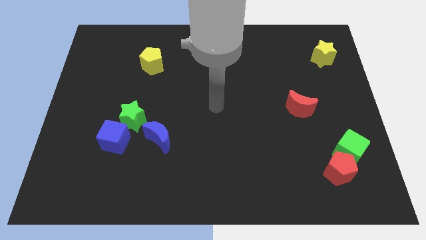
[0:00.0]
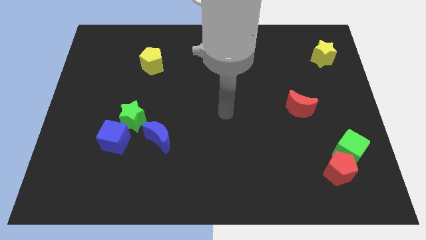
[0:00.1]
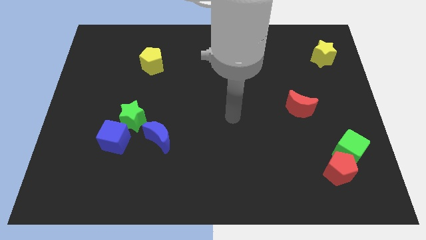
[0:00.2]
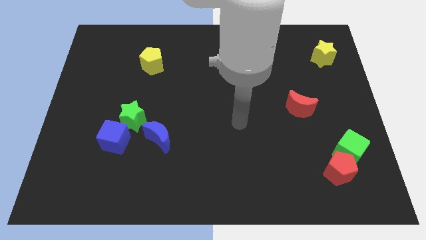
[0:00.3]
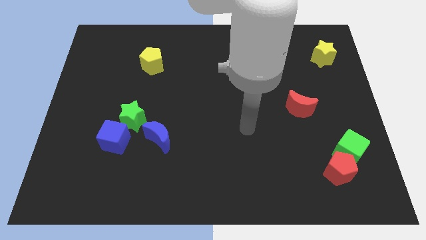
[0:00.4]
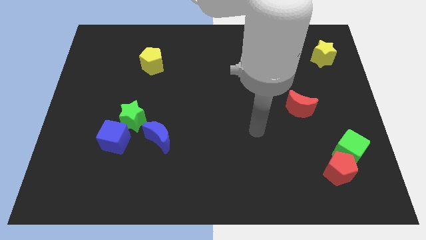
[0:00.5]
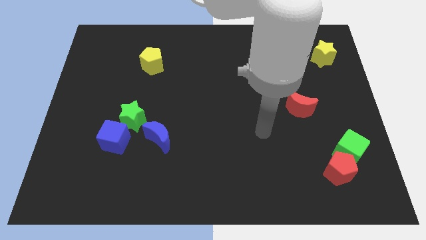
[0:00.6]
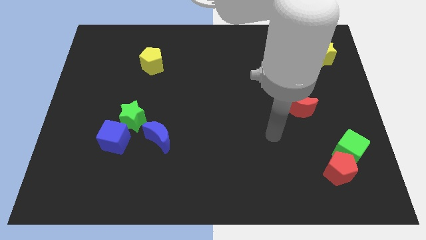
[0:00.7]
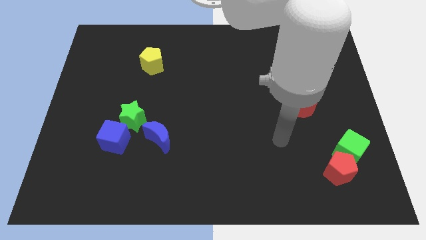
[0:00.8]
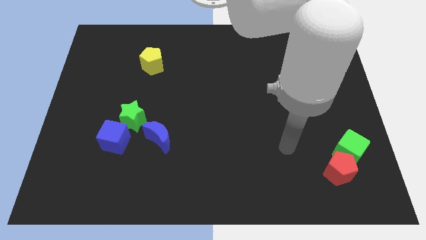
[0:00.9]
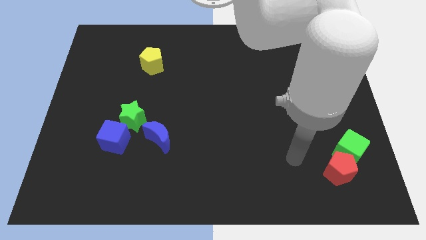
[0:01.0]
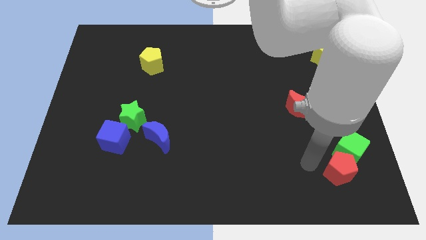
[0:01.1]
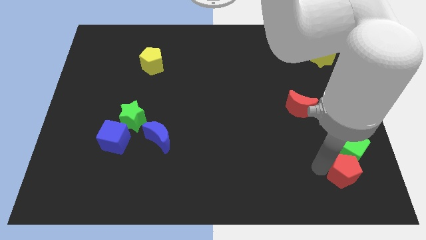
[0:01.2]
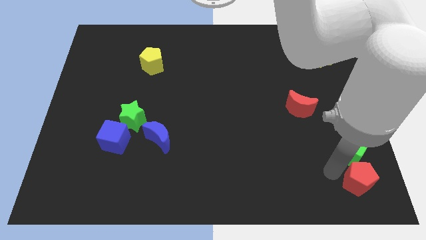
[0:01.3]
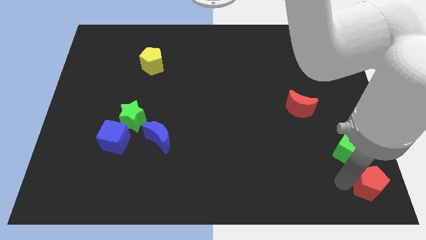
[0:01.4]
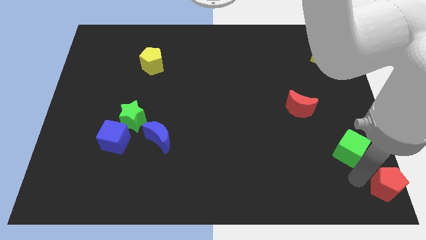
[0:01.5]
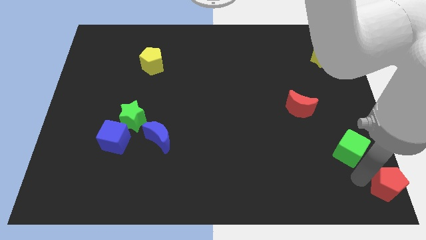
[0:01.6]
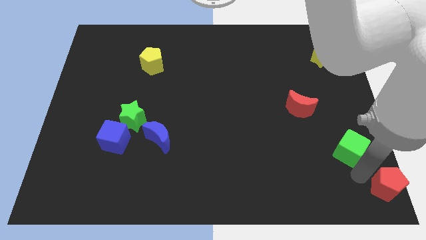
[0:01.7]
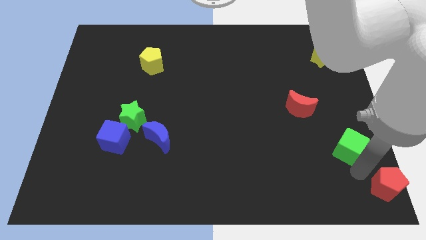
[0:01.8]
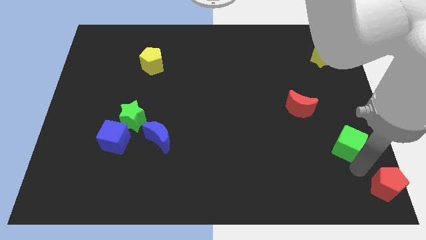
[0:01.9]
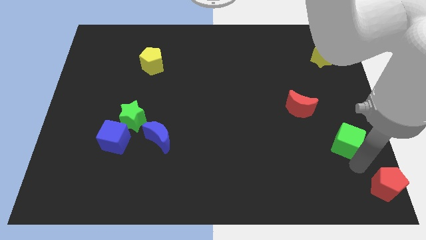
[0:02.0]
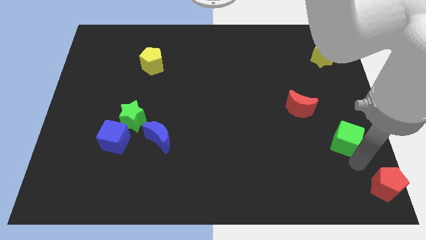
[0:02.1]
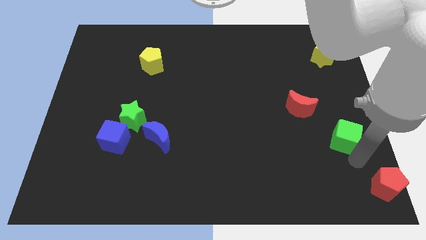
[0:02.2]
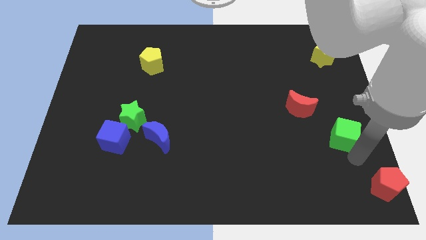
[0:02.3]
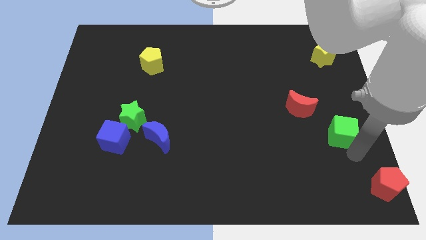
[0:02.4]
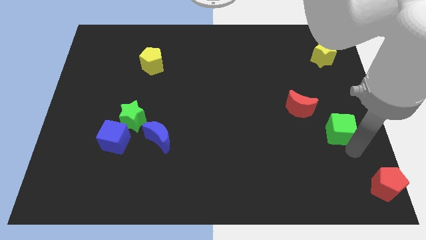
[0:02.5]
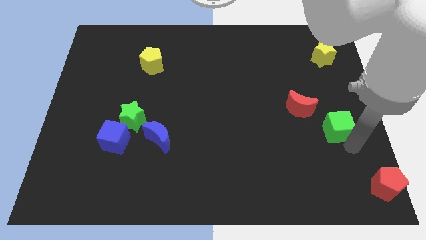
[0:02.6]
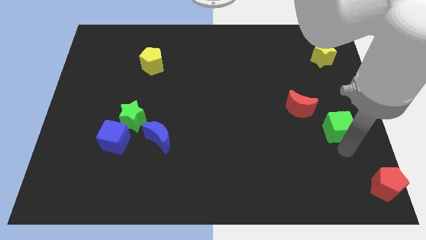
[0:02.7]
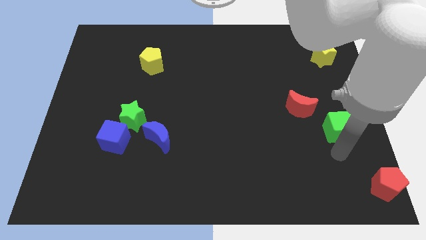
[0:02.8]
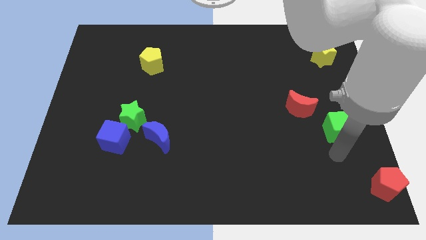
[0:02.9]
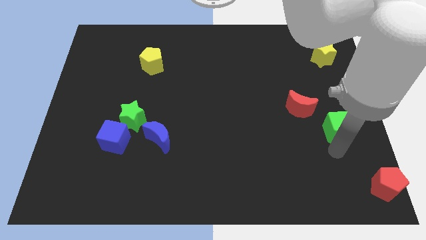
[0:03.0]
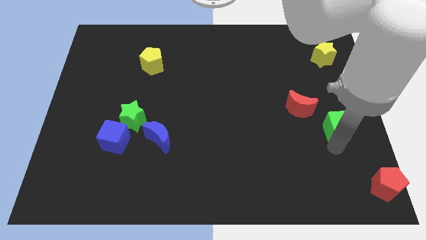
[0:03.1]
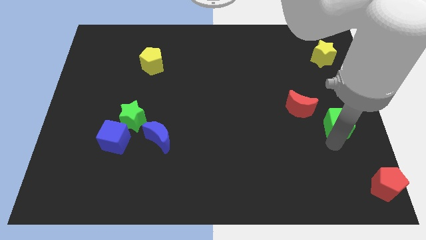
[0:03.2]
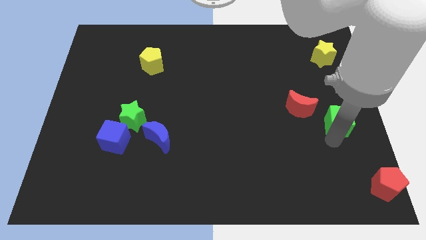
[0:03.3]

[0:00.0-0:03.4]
move the green cube upwards a little bit

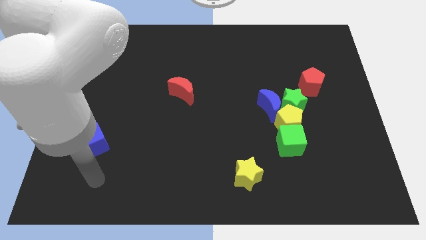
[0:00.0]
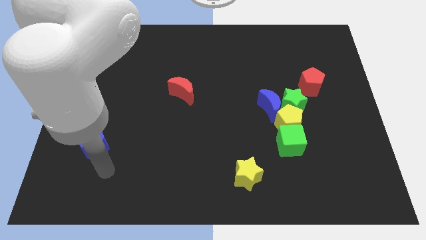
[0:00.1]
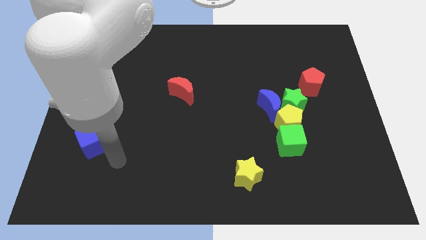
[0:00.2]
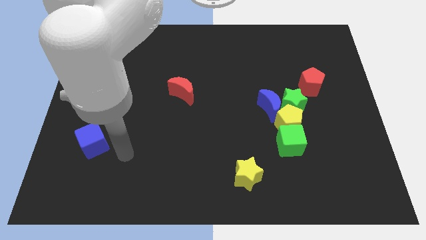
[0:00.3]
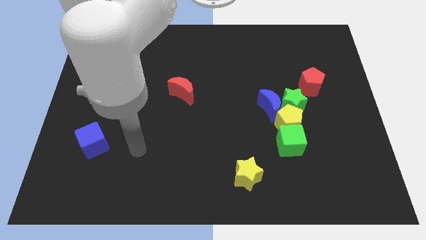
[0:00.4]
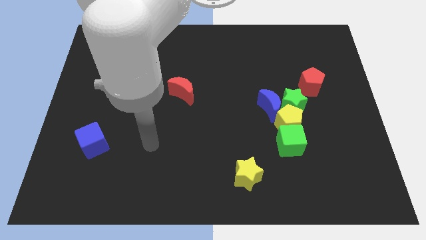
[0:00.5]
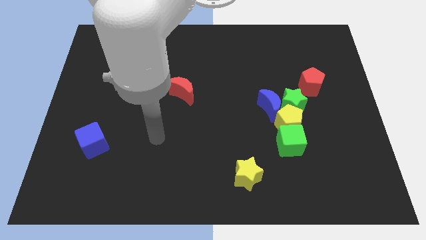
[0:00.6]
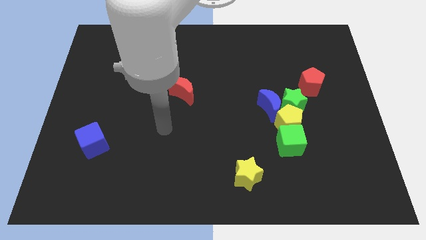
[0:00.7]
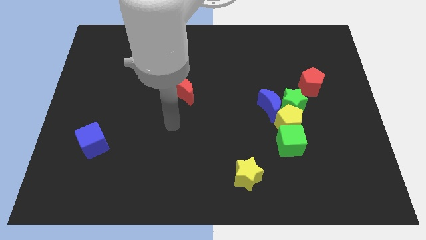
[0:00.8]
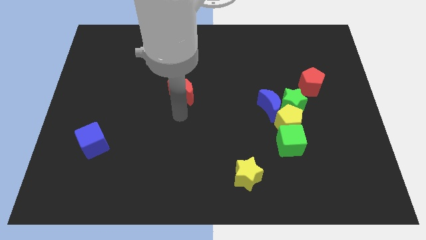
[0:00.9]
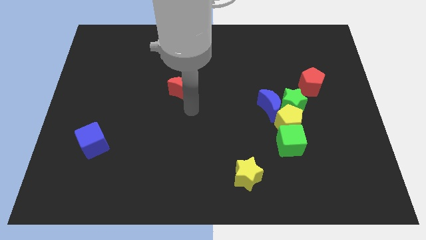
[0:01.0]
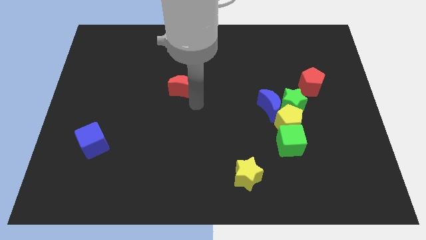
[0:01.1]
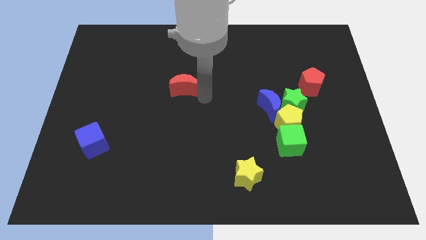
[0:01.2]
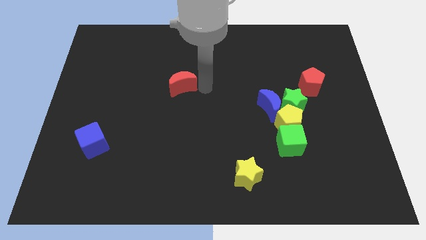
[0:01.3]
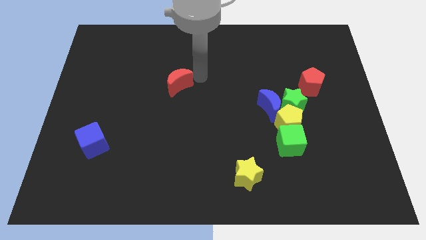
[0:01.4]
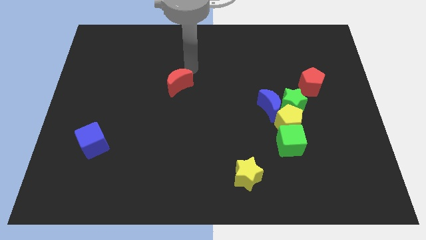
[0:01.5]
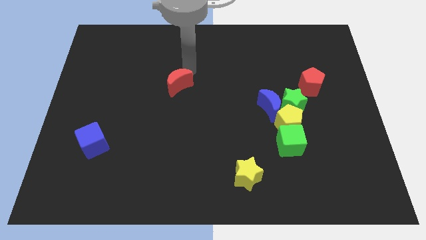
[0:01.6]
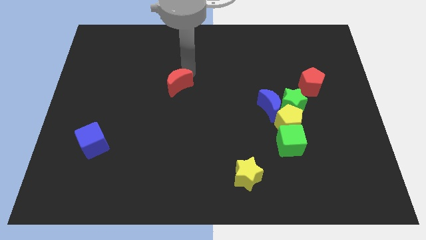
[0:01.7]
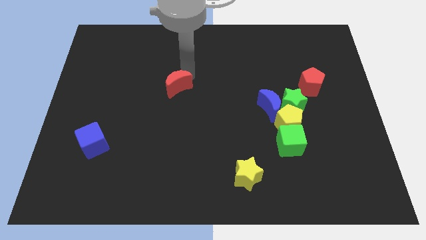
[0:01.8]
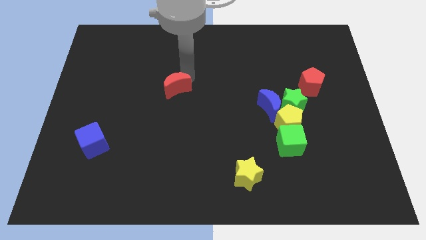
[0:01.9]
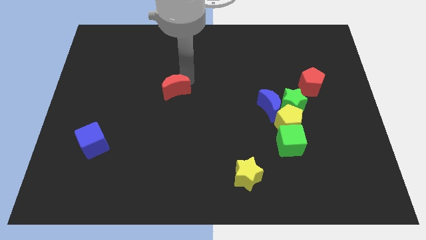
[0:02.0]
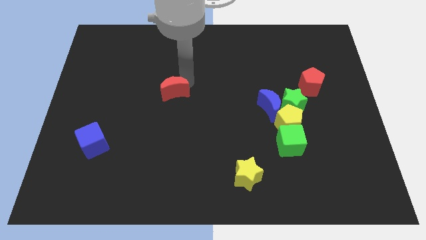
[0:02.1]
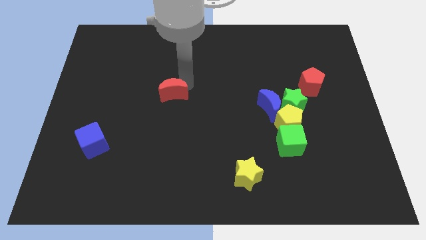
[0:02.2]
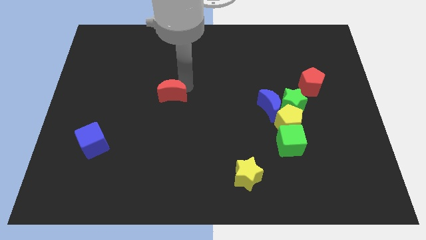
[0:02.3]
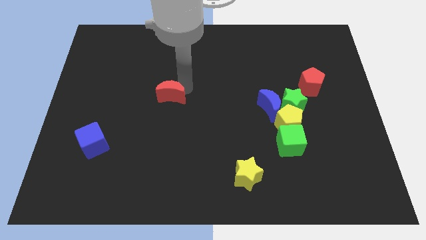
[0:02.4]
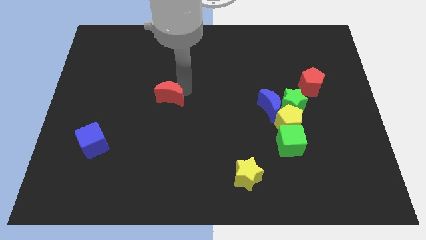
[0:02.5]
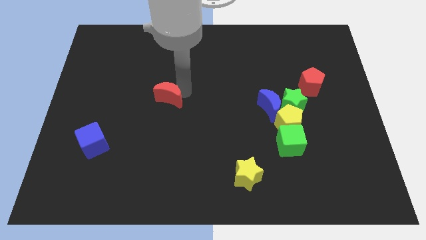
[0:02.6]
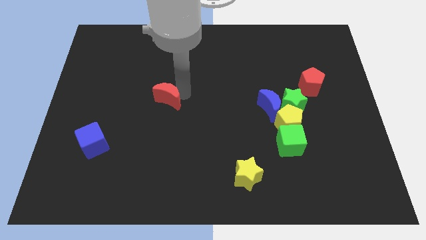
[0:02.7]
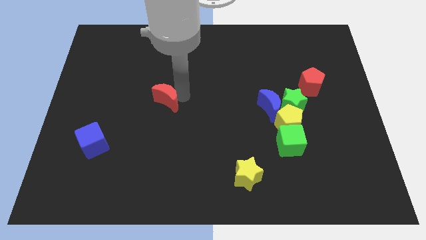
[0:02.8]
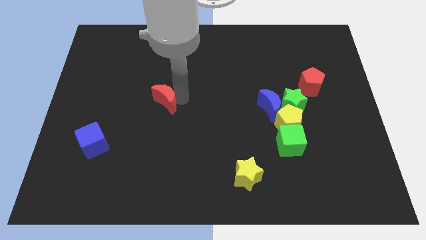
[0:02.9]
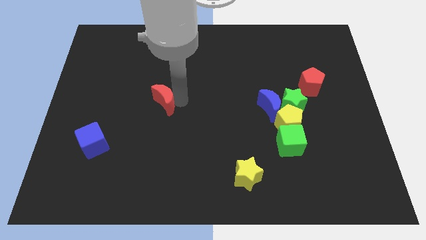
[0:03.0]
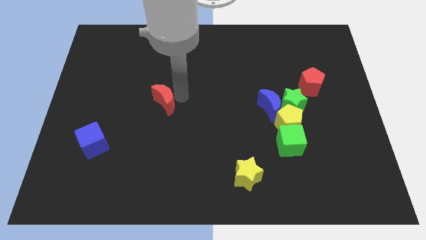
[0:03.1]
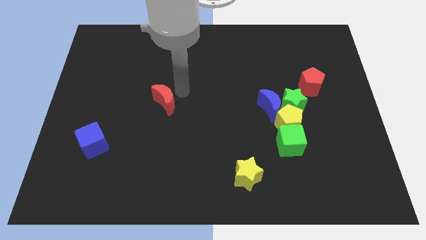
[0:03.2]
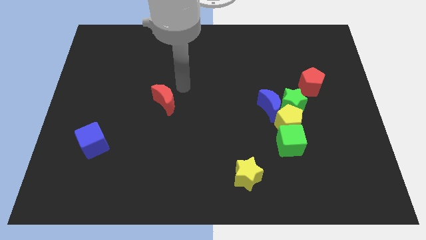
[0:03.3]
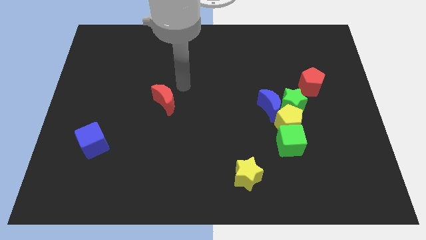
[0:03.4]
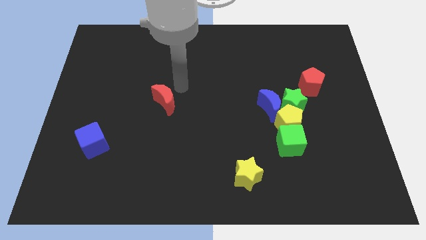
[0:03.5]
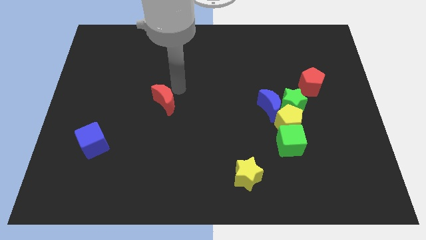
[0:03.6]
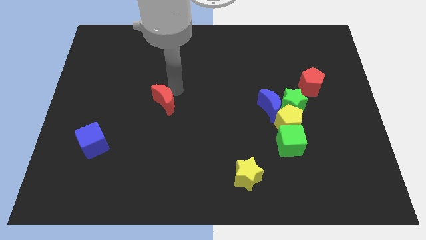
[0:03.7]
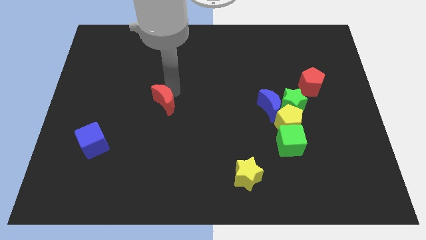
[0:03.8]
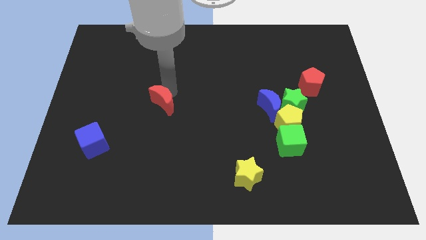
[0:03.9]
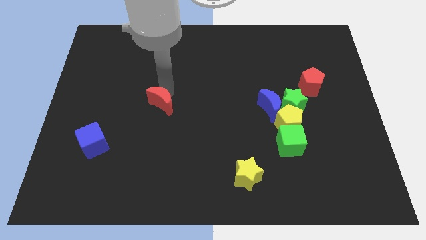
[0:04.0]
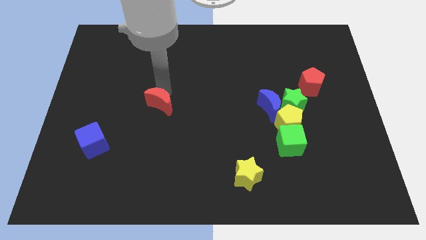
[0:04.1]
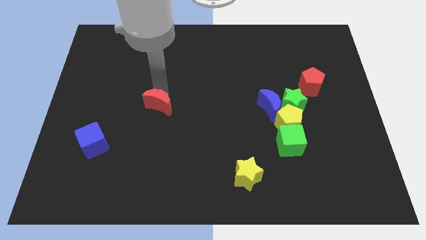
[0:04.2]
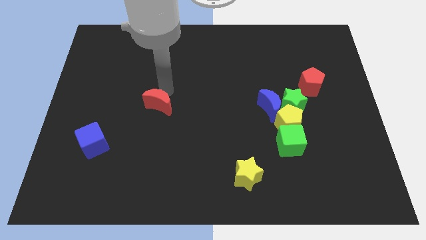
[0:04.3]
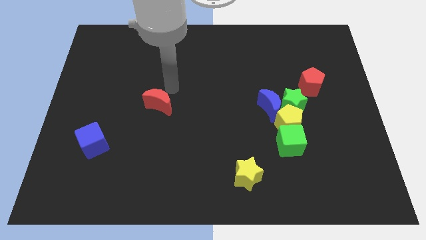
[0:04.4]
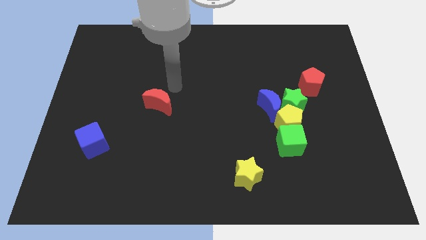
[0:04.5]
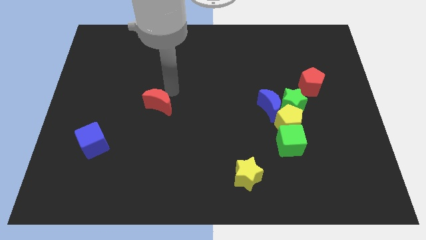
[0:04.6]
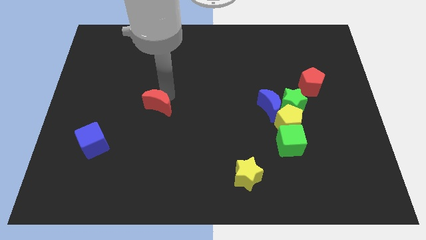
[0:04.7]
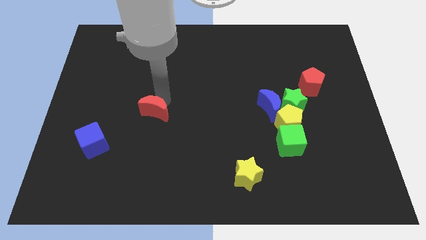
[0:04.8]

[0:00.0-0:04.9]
move the red moon down and to the left somewhat
